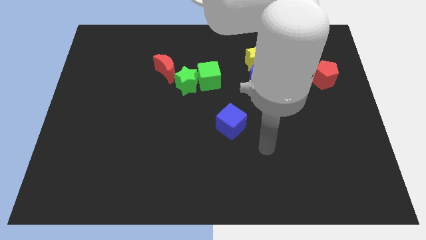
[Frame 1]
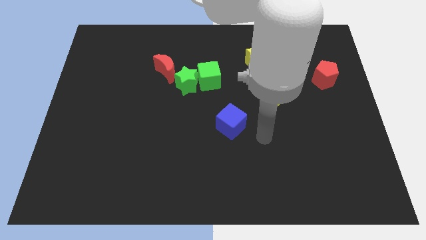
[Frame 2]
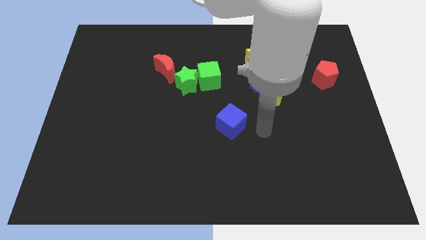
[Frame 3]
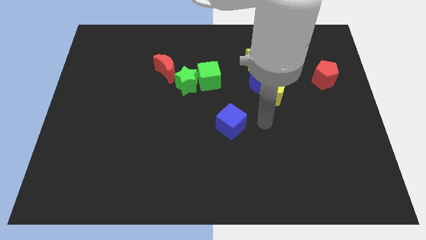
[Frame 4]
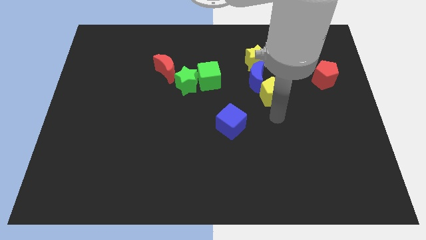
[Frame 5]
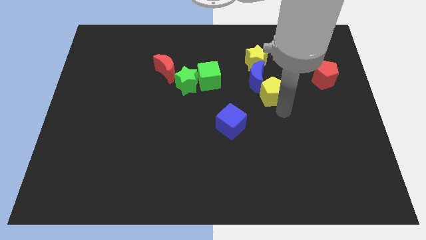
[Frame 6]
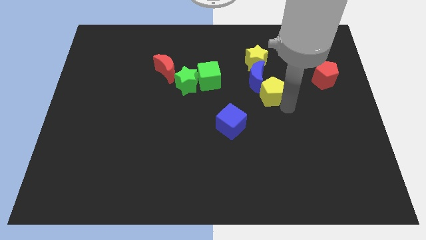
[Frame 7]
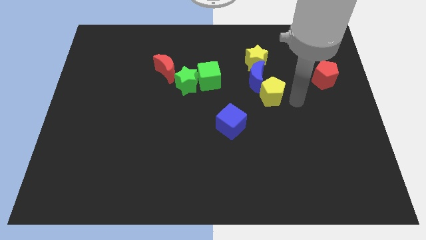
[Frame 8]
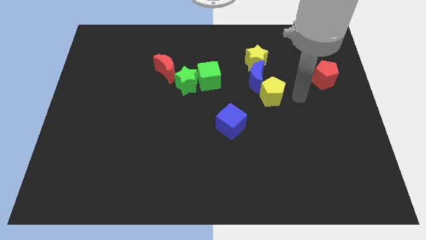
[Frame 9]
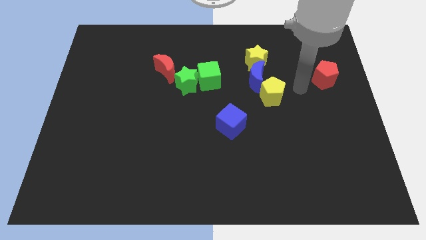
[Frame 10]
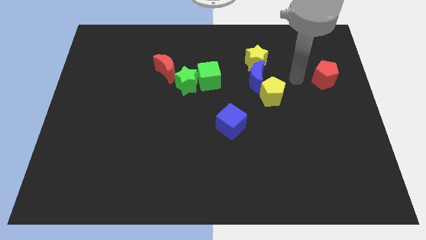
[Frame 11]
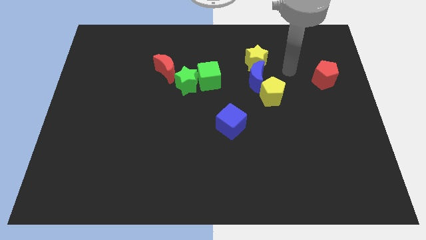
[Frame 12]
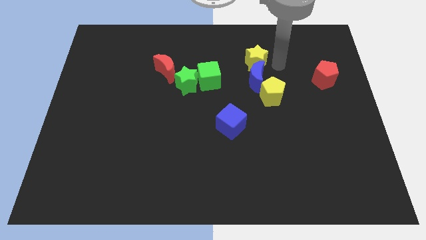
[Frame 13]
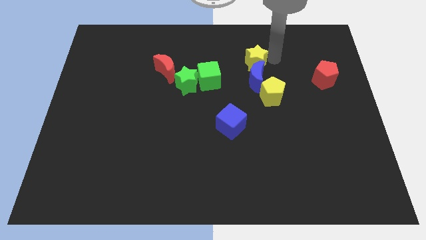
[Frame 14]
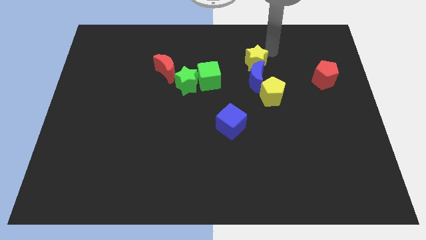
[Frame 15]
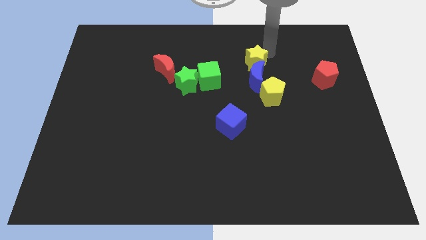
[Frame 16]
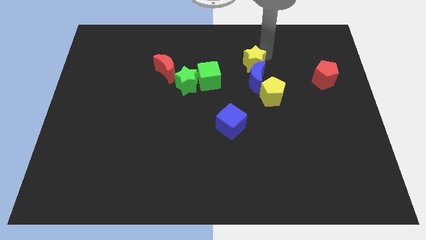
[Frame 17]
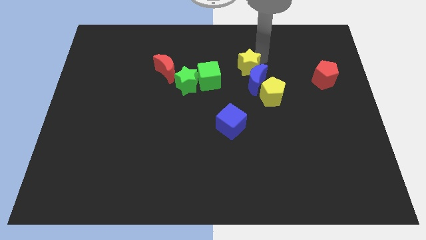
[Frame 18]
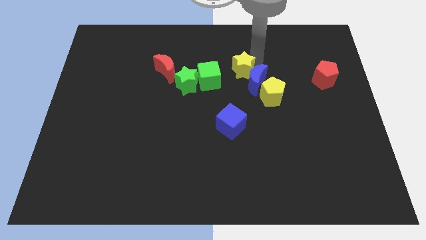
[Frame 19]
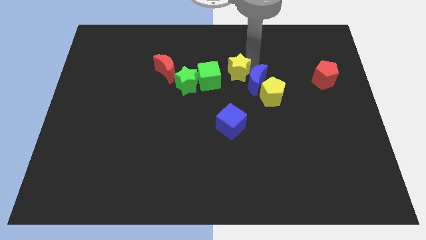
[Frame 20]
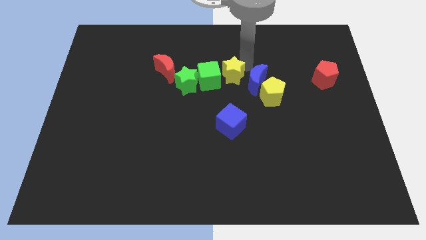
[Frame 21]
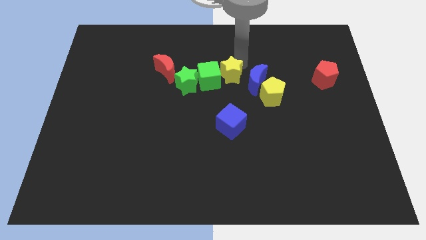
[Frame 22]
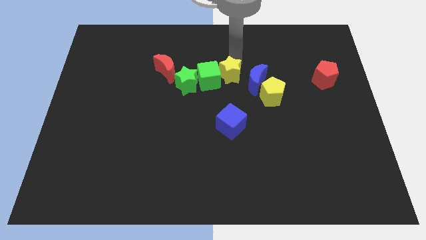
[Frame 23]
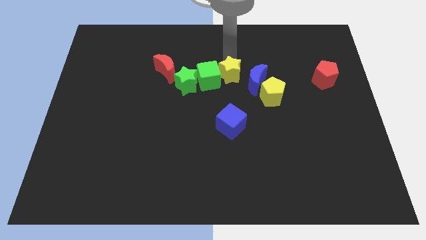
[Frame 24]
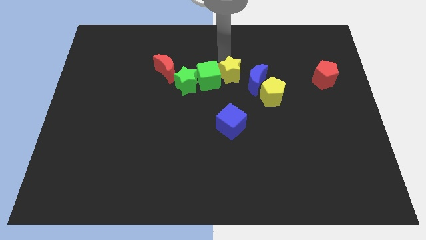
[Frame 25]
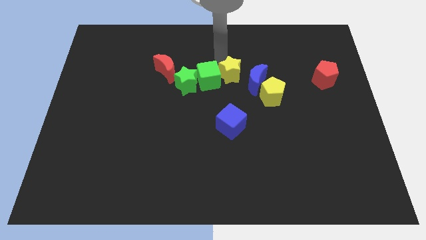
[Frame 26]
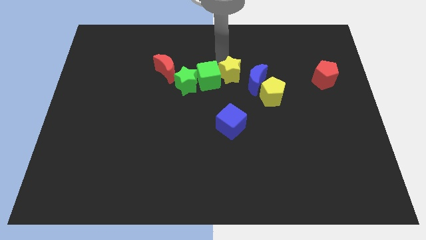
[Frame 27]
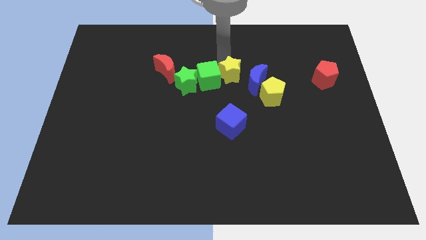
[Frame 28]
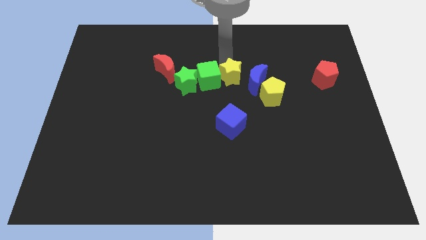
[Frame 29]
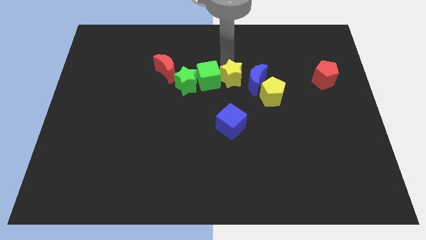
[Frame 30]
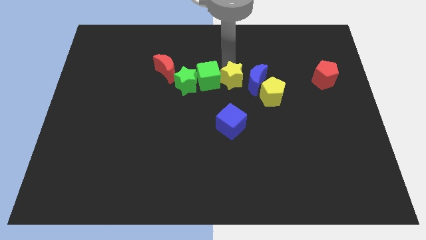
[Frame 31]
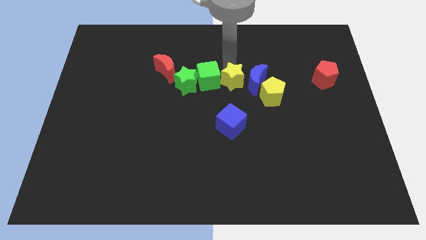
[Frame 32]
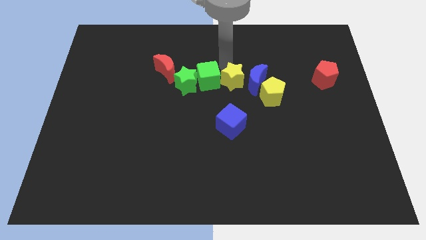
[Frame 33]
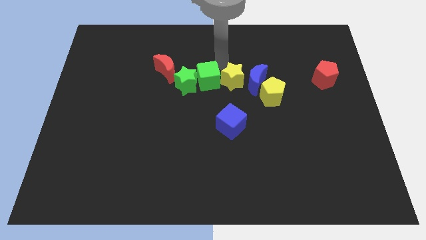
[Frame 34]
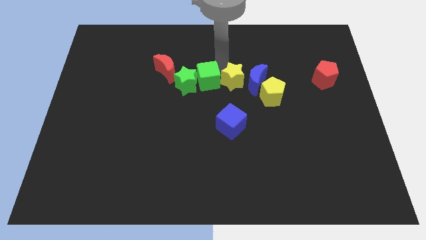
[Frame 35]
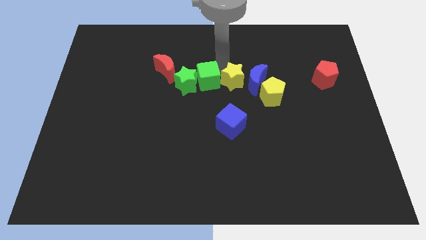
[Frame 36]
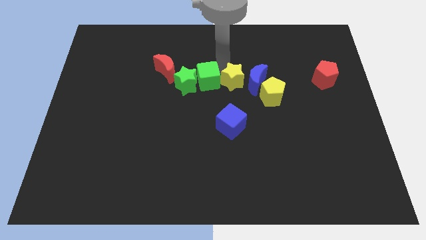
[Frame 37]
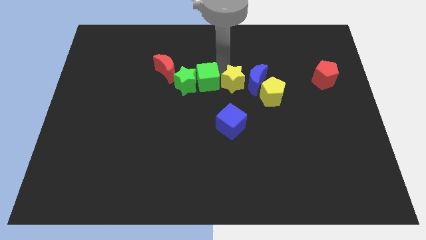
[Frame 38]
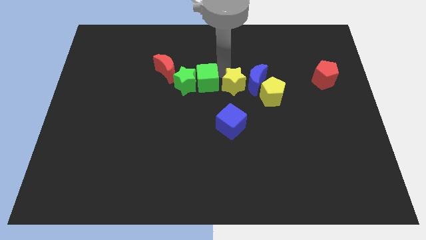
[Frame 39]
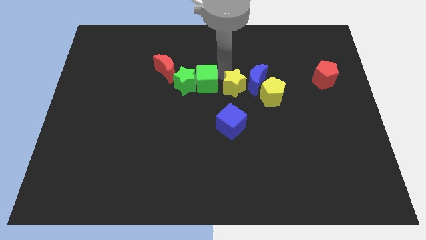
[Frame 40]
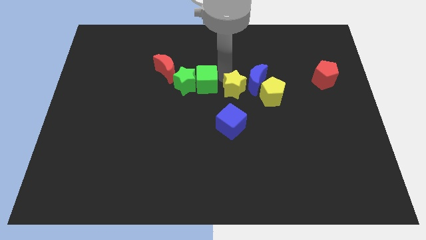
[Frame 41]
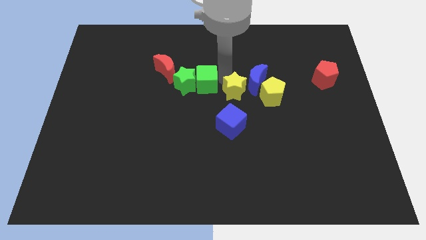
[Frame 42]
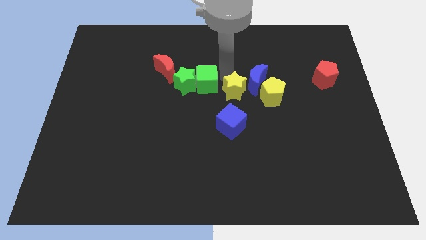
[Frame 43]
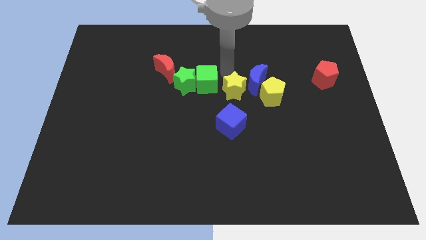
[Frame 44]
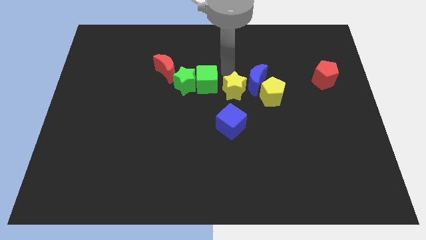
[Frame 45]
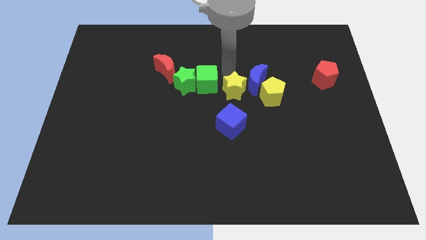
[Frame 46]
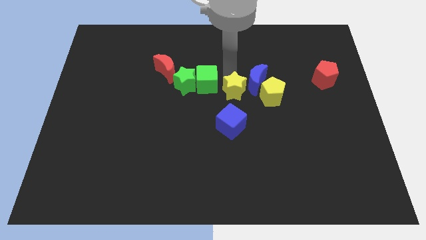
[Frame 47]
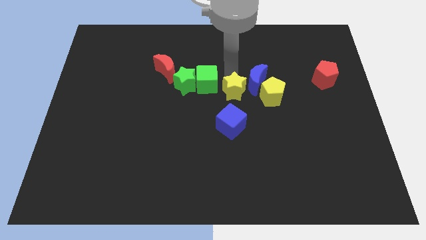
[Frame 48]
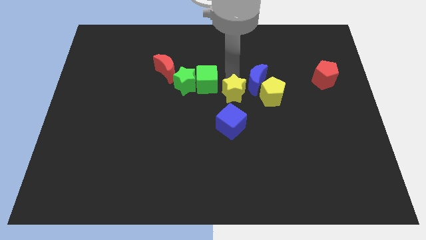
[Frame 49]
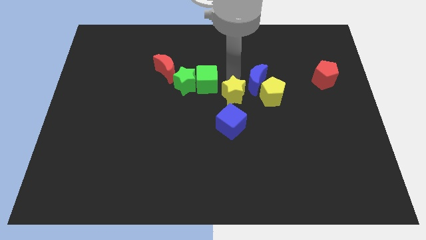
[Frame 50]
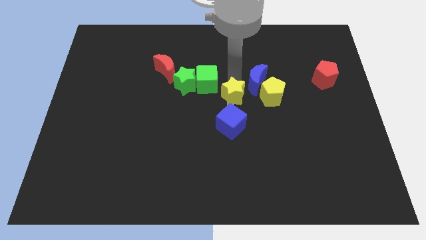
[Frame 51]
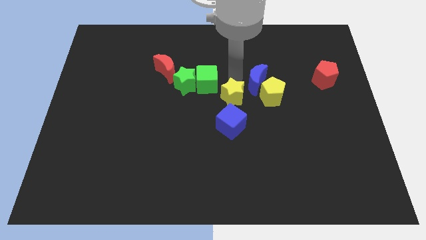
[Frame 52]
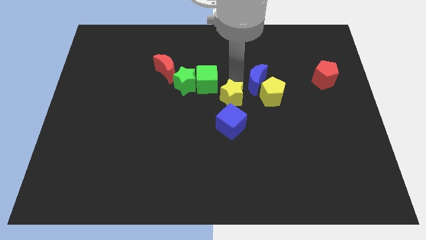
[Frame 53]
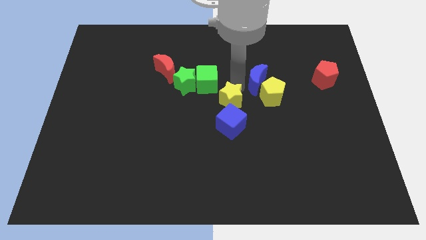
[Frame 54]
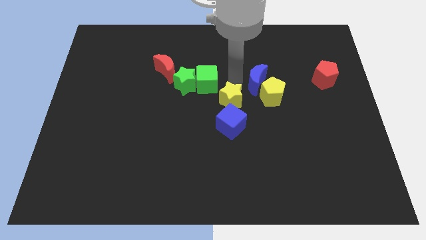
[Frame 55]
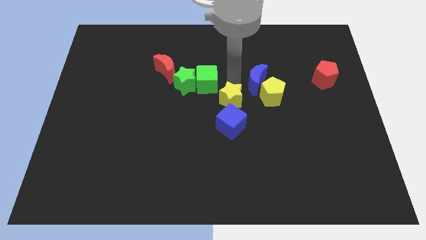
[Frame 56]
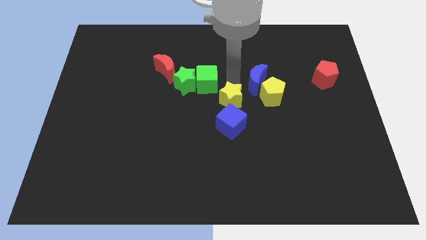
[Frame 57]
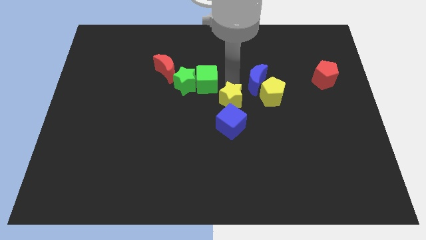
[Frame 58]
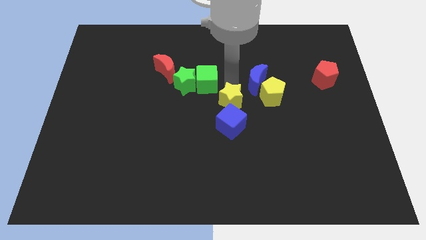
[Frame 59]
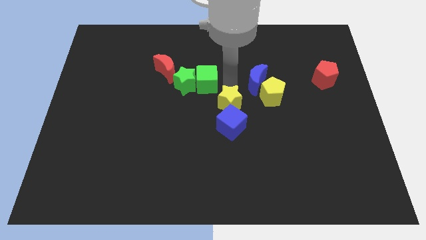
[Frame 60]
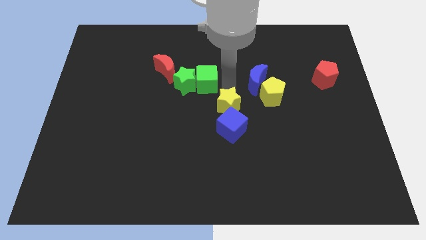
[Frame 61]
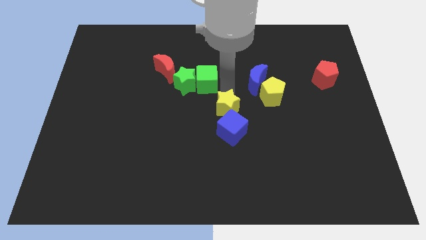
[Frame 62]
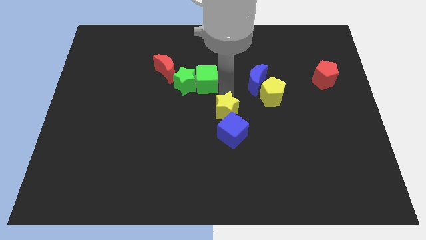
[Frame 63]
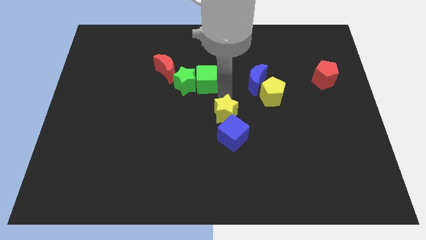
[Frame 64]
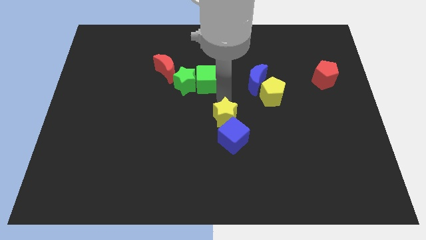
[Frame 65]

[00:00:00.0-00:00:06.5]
slide the yellow star next to the blue cube

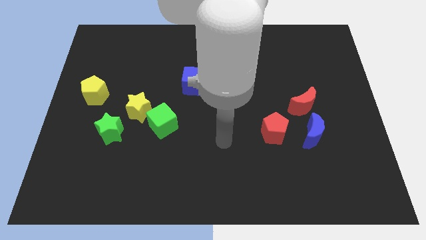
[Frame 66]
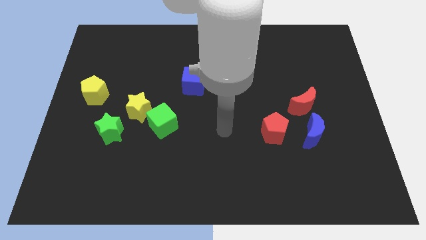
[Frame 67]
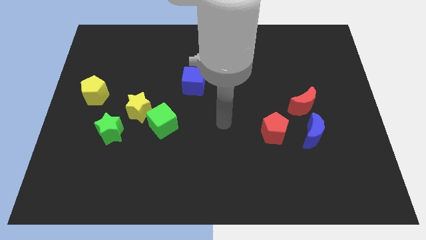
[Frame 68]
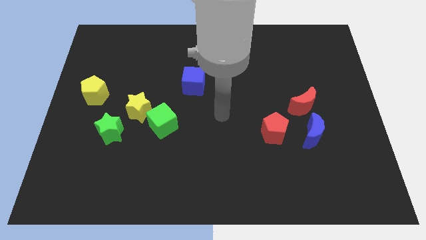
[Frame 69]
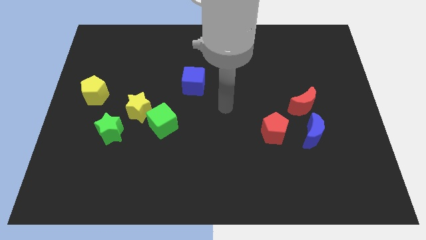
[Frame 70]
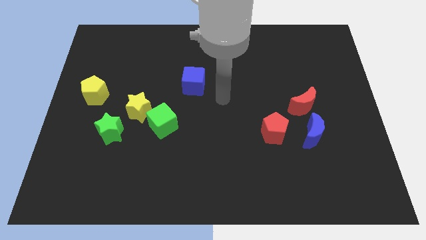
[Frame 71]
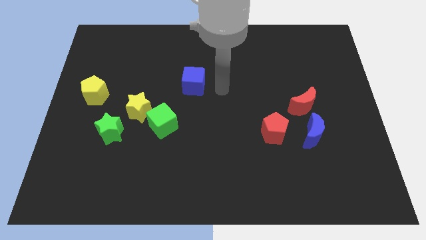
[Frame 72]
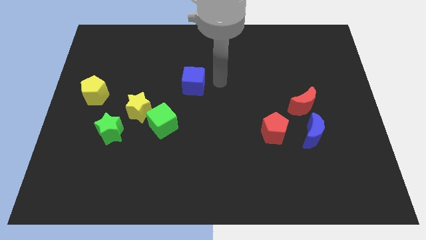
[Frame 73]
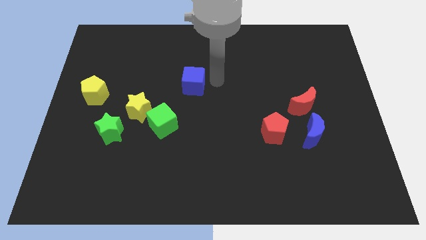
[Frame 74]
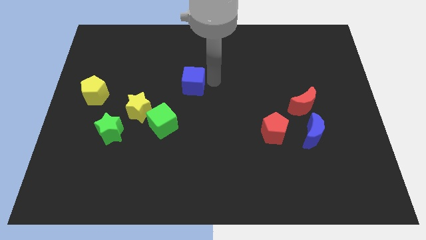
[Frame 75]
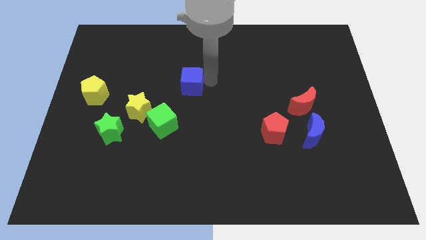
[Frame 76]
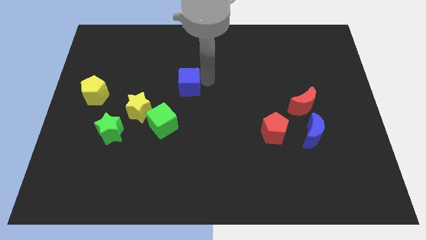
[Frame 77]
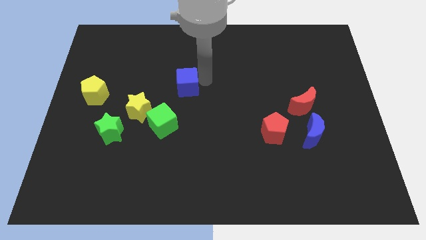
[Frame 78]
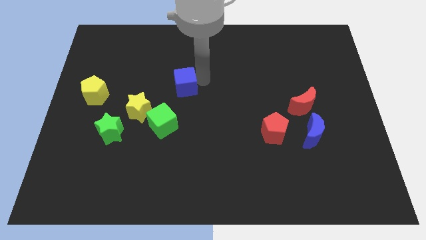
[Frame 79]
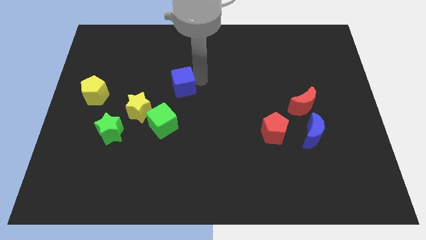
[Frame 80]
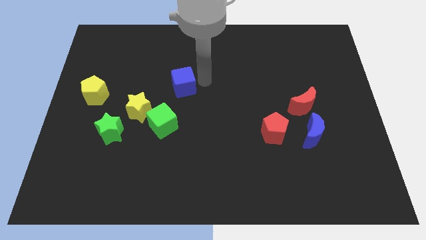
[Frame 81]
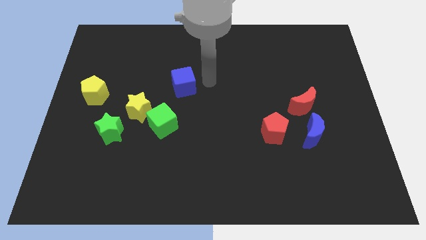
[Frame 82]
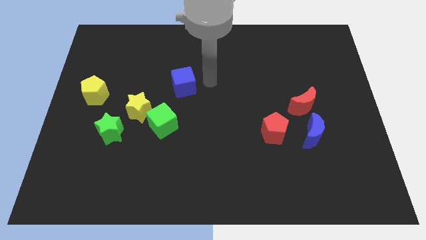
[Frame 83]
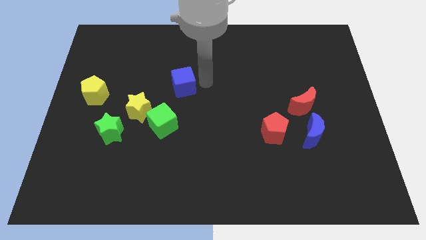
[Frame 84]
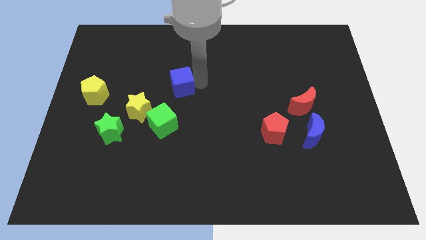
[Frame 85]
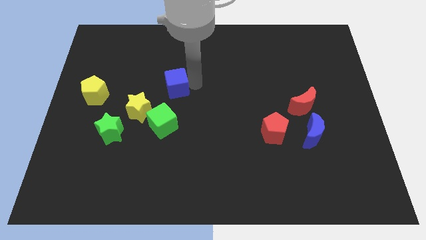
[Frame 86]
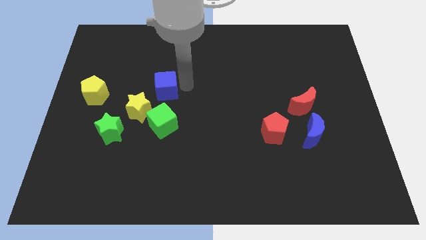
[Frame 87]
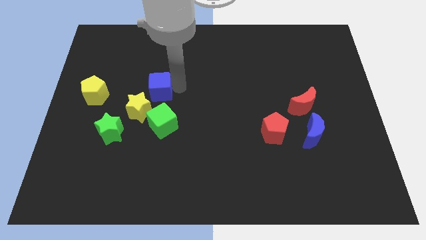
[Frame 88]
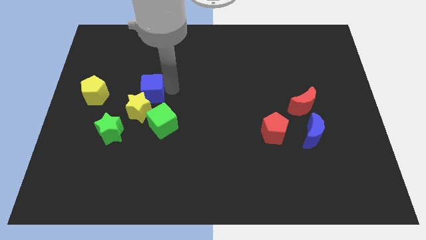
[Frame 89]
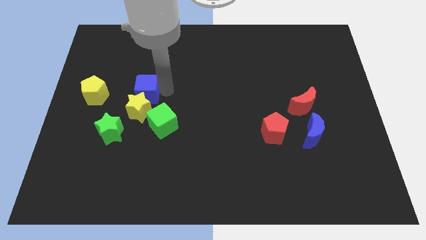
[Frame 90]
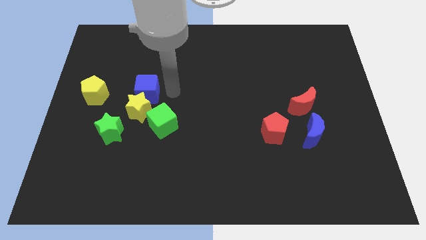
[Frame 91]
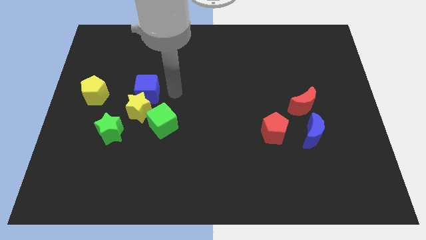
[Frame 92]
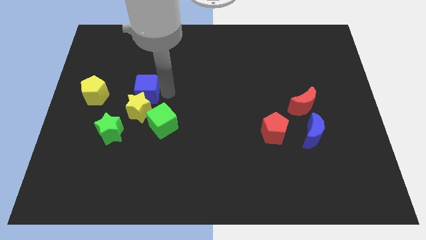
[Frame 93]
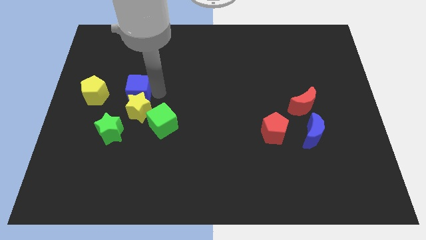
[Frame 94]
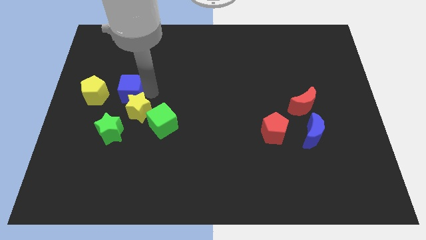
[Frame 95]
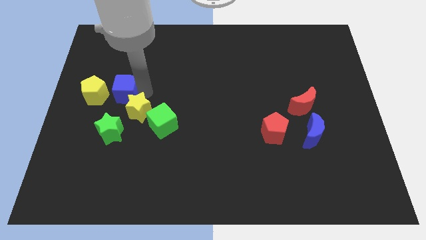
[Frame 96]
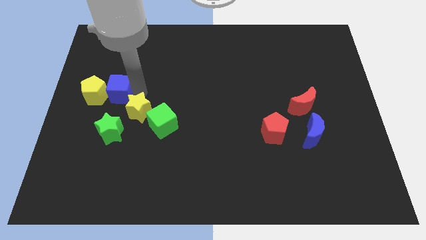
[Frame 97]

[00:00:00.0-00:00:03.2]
push the blue cube towards the yellow pentagon
